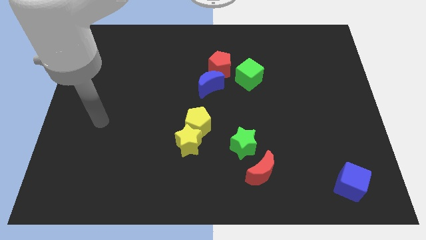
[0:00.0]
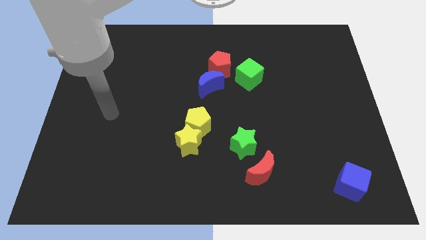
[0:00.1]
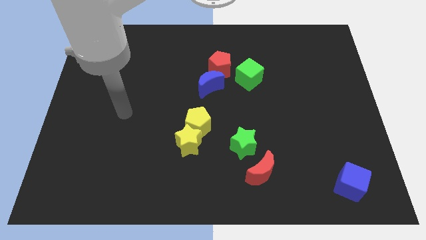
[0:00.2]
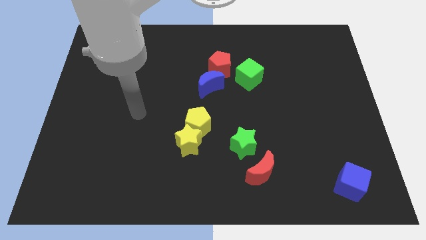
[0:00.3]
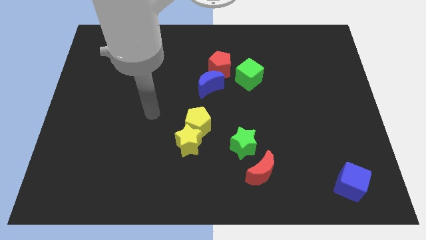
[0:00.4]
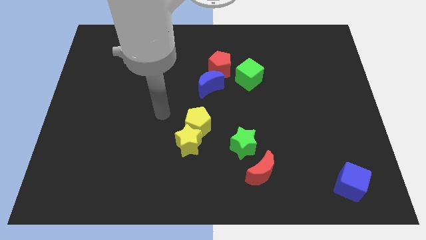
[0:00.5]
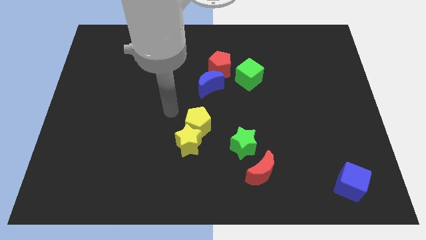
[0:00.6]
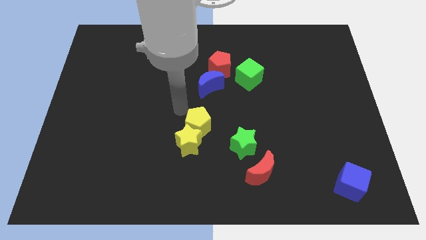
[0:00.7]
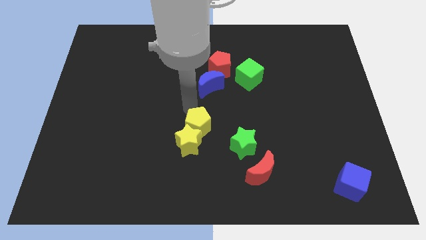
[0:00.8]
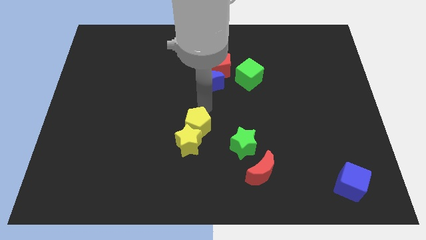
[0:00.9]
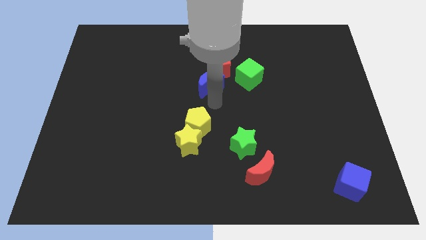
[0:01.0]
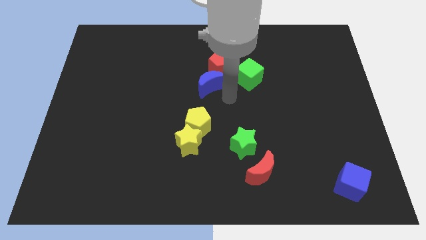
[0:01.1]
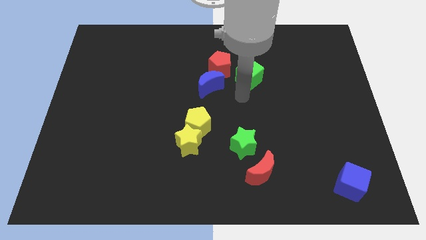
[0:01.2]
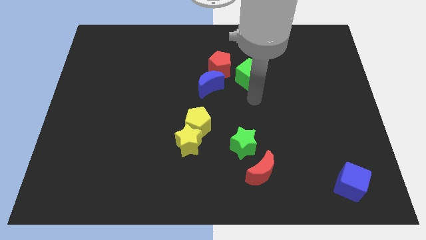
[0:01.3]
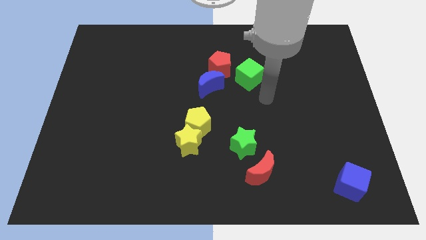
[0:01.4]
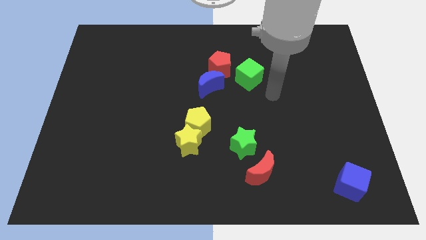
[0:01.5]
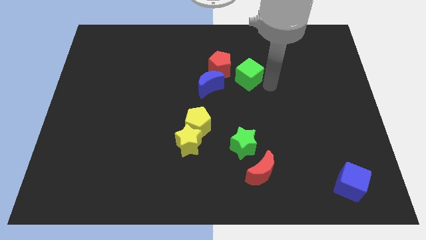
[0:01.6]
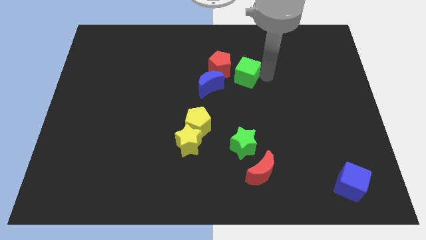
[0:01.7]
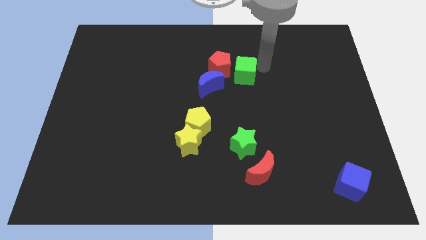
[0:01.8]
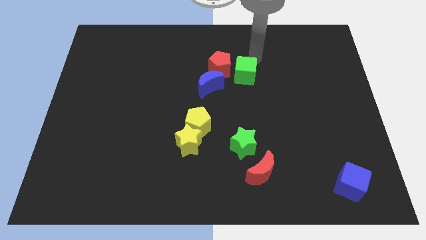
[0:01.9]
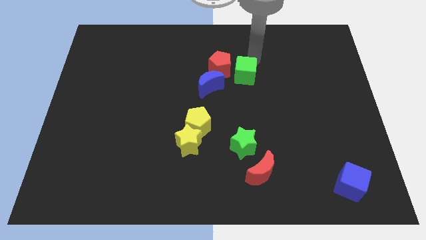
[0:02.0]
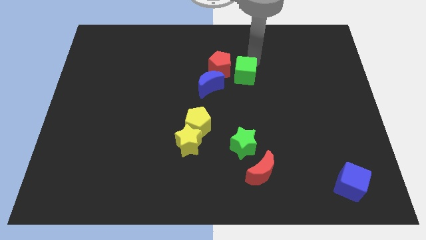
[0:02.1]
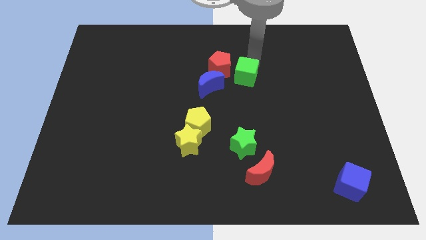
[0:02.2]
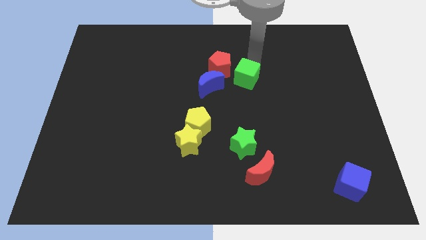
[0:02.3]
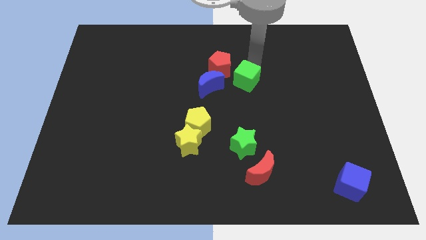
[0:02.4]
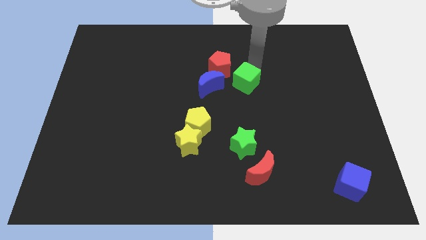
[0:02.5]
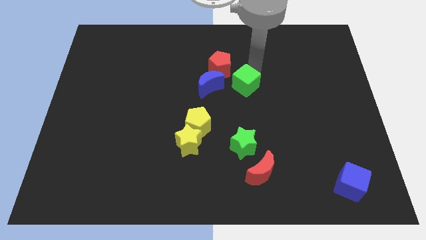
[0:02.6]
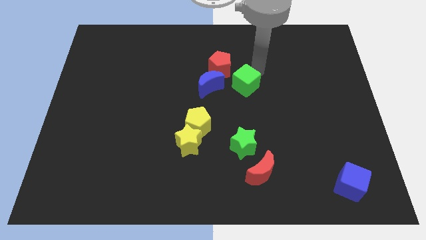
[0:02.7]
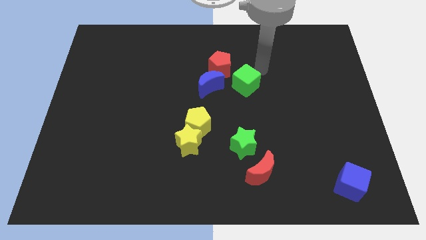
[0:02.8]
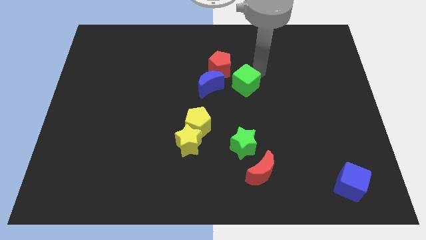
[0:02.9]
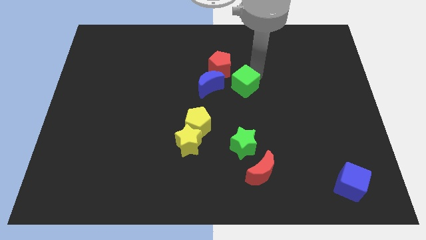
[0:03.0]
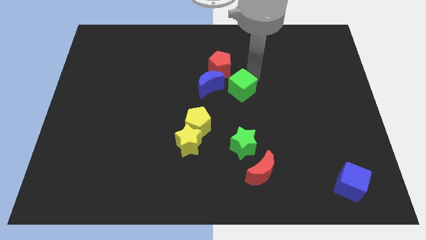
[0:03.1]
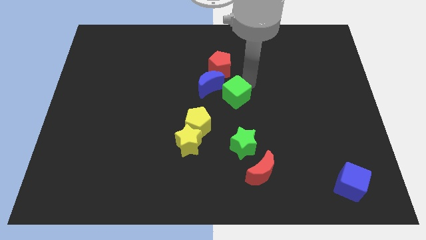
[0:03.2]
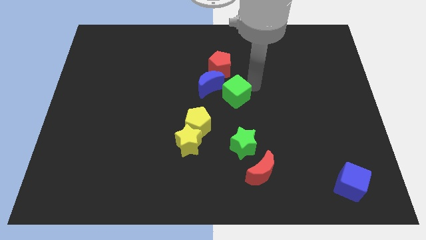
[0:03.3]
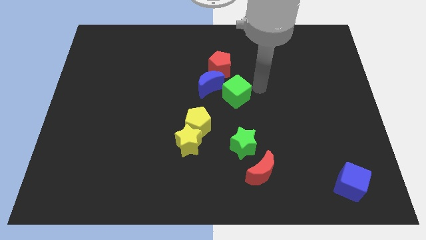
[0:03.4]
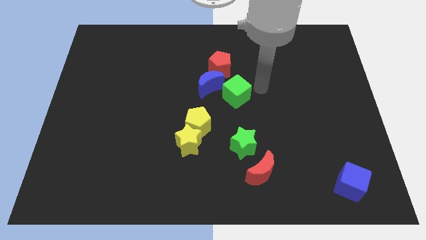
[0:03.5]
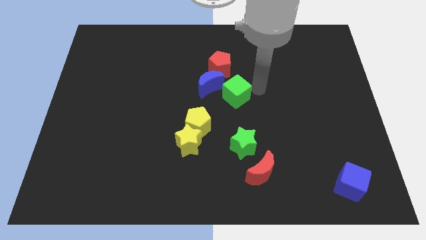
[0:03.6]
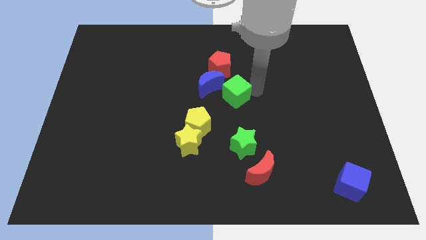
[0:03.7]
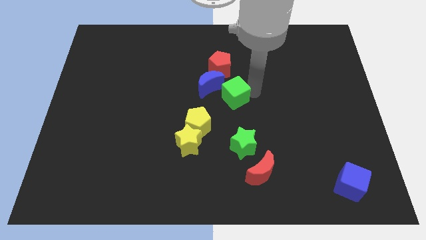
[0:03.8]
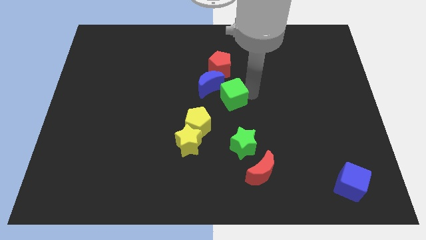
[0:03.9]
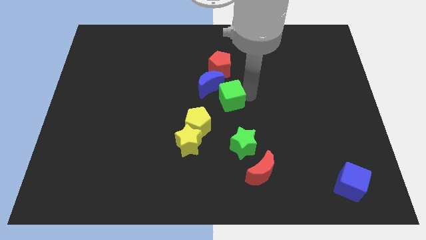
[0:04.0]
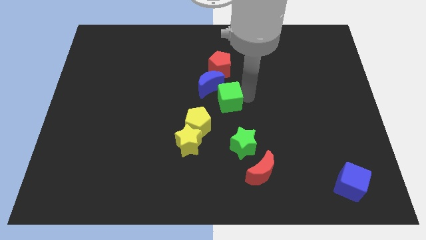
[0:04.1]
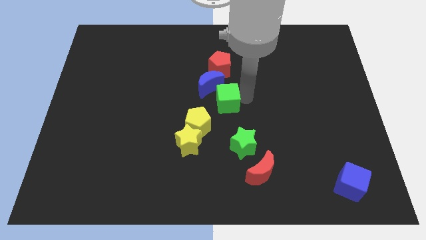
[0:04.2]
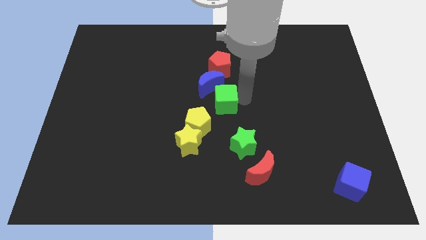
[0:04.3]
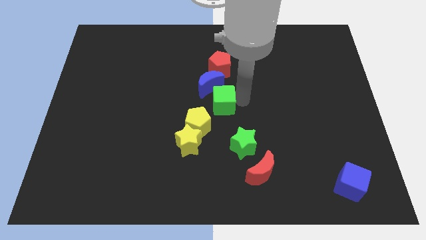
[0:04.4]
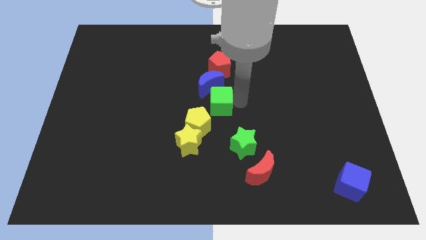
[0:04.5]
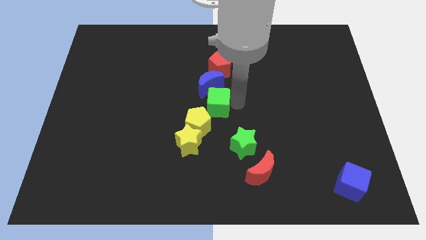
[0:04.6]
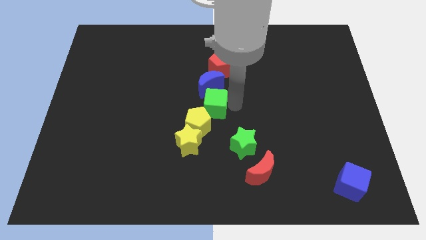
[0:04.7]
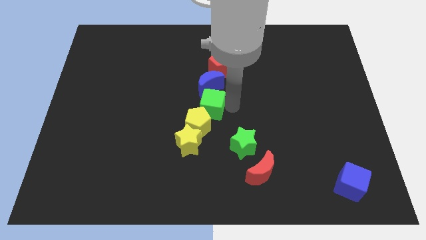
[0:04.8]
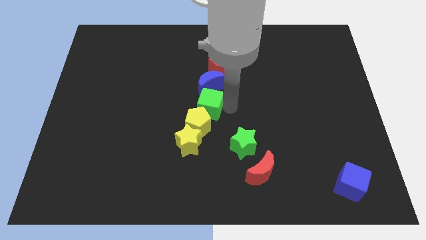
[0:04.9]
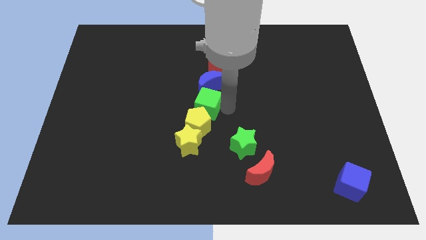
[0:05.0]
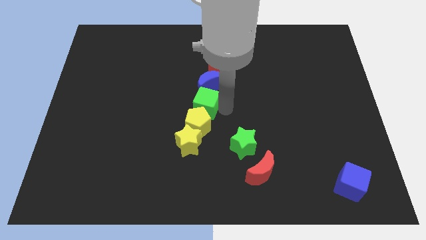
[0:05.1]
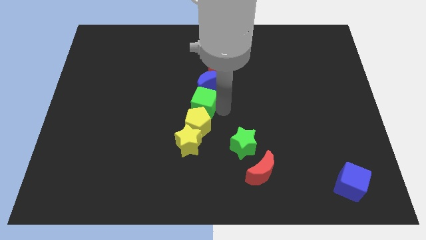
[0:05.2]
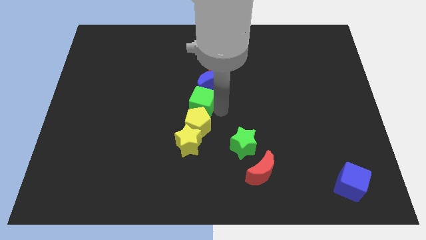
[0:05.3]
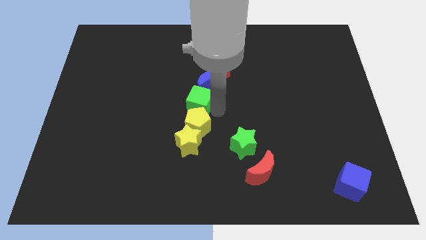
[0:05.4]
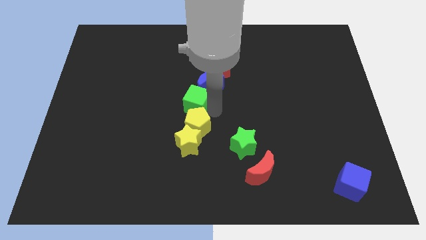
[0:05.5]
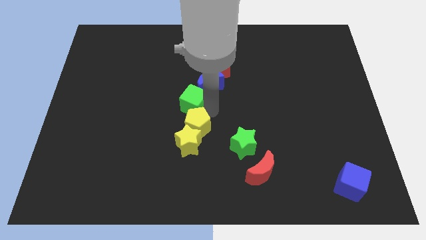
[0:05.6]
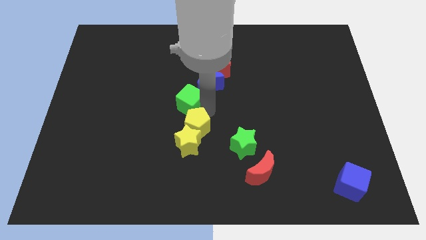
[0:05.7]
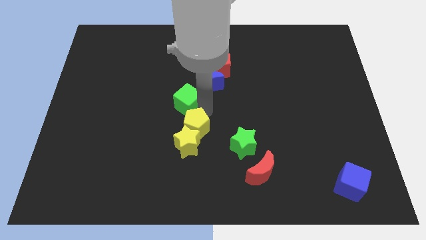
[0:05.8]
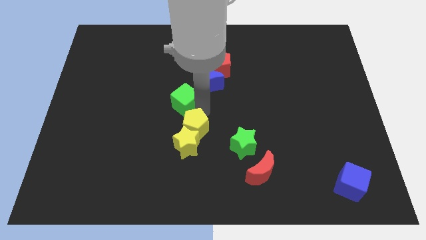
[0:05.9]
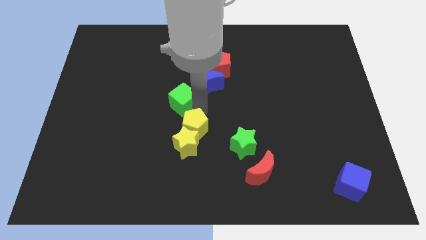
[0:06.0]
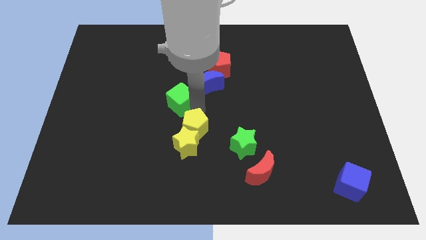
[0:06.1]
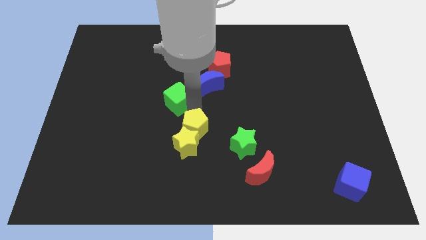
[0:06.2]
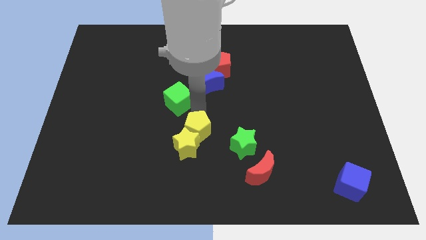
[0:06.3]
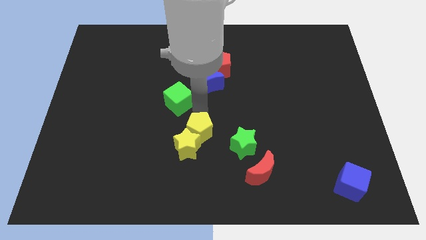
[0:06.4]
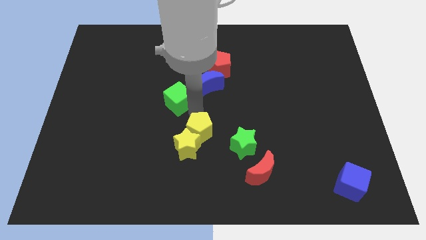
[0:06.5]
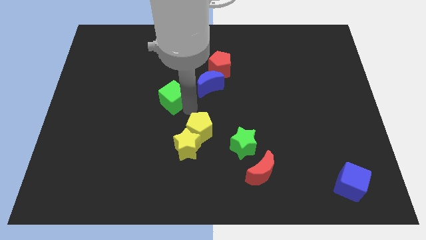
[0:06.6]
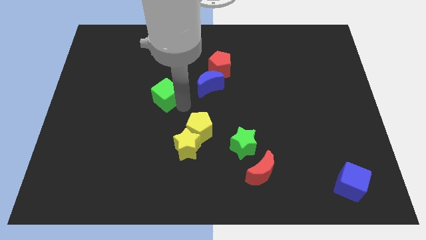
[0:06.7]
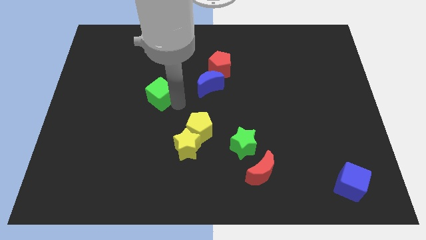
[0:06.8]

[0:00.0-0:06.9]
push the green cube to the left

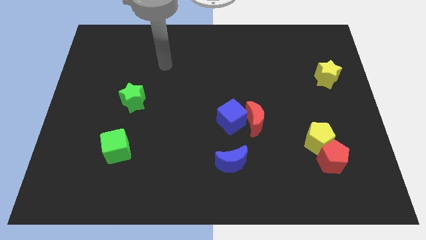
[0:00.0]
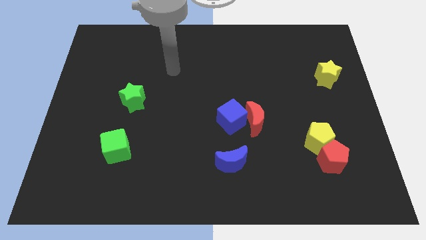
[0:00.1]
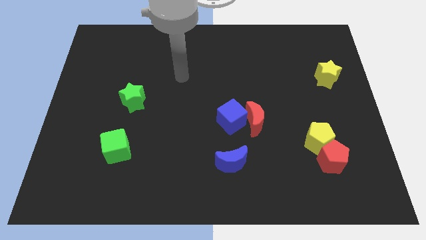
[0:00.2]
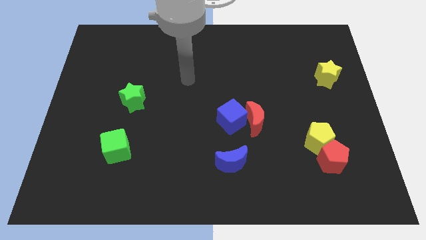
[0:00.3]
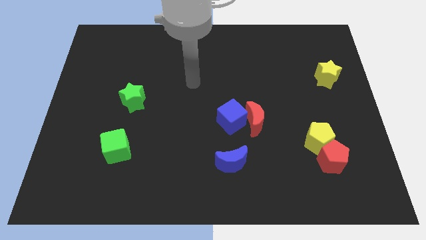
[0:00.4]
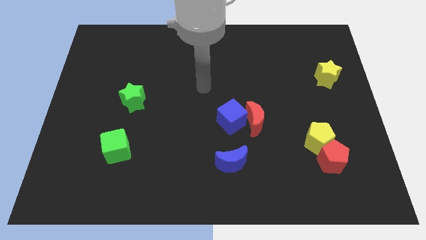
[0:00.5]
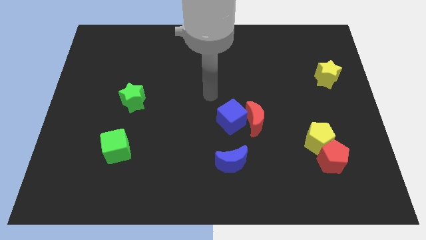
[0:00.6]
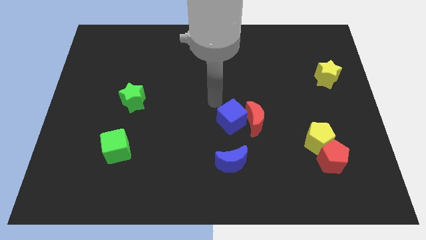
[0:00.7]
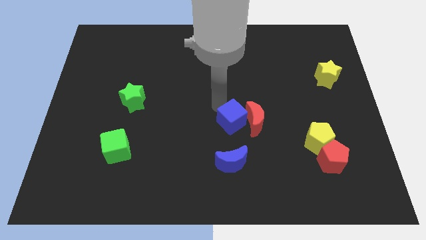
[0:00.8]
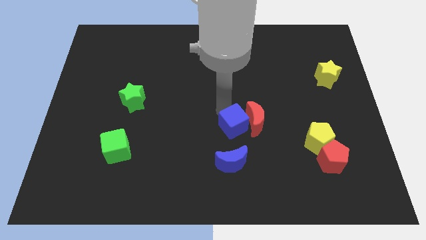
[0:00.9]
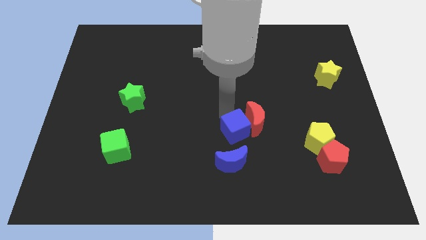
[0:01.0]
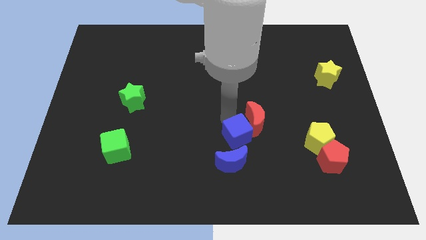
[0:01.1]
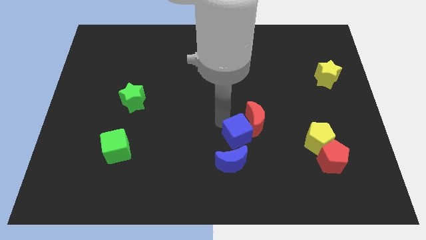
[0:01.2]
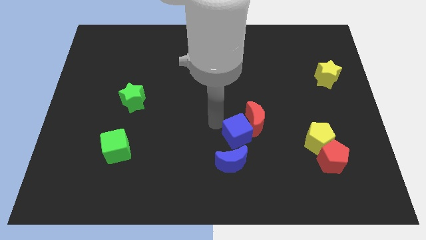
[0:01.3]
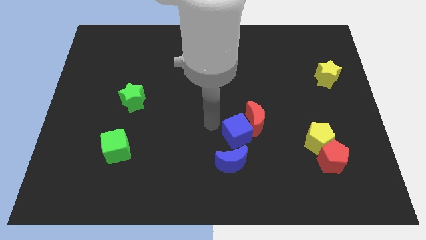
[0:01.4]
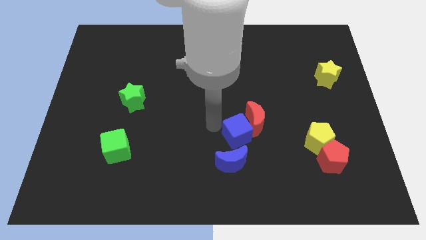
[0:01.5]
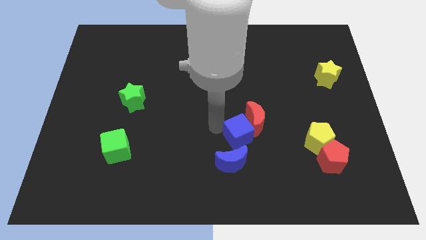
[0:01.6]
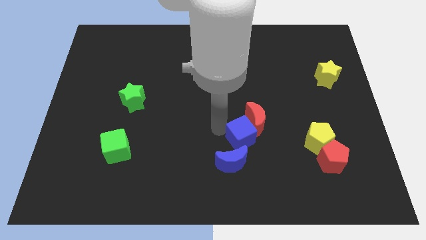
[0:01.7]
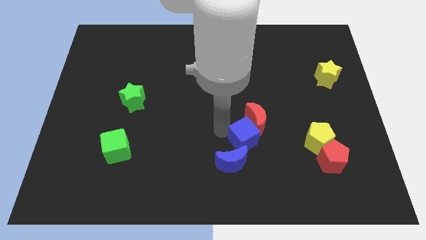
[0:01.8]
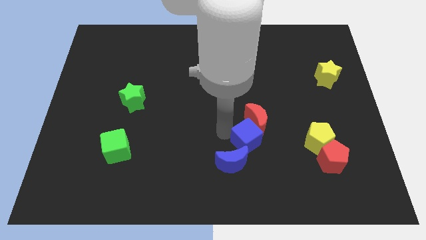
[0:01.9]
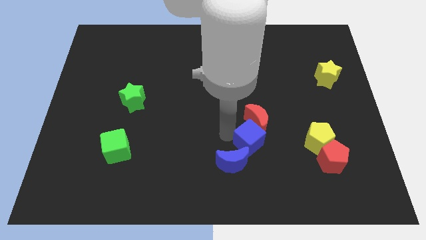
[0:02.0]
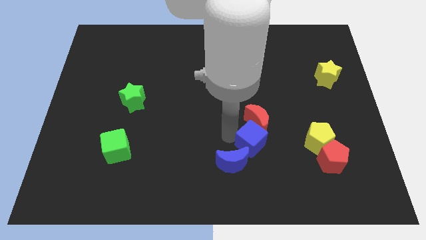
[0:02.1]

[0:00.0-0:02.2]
slightly move the blue cube diagonally down and right
